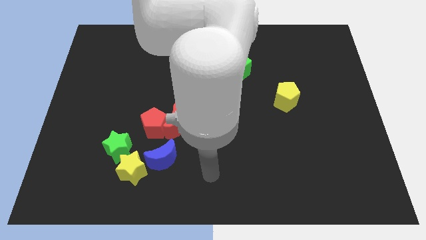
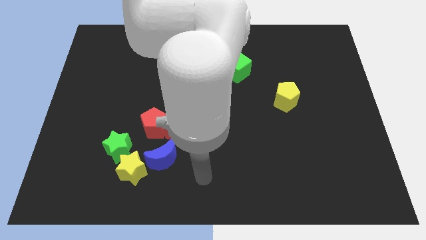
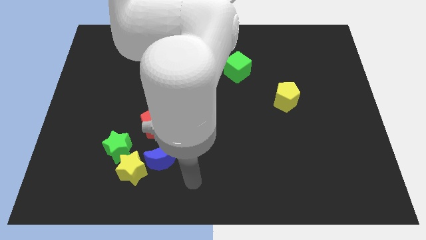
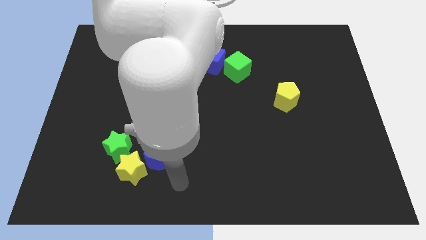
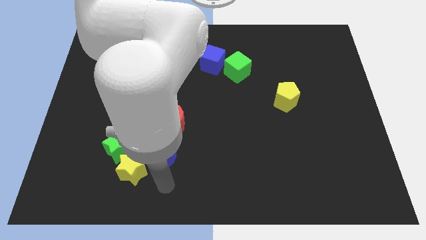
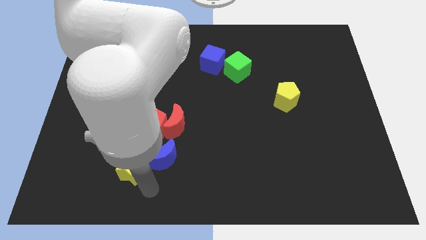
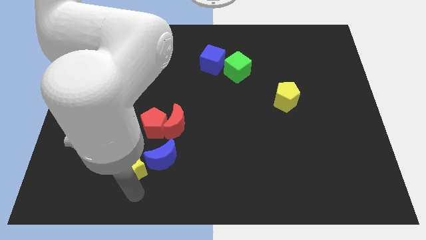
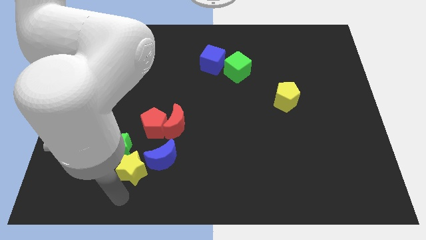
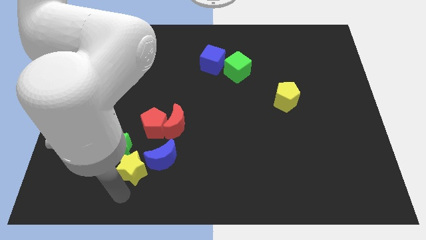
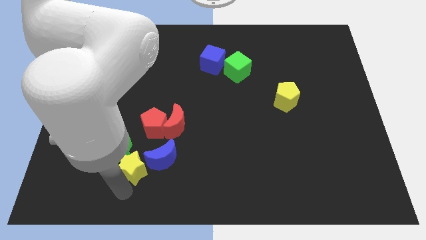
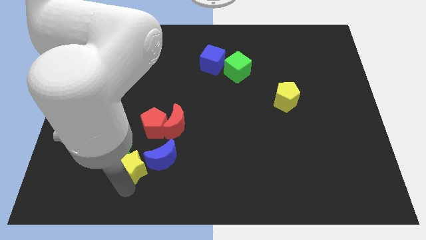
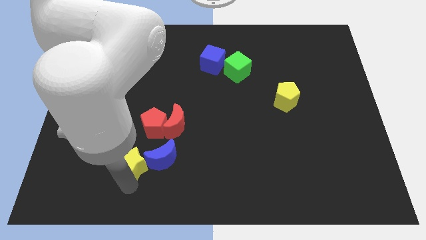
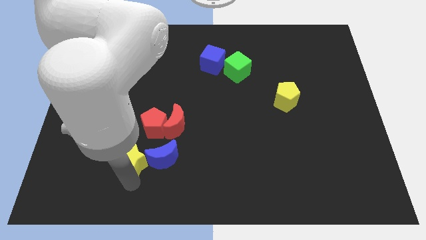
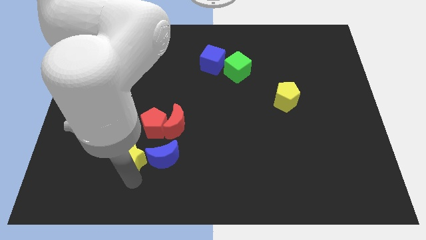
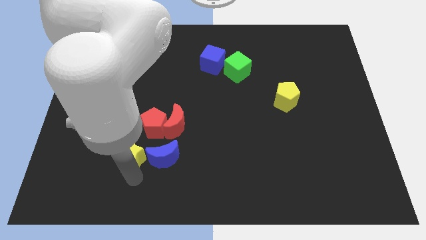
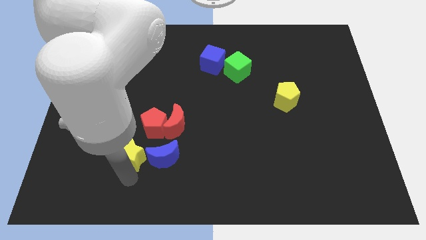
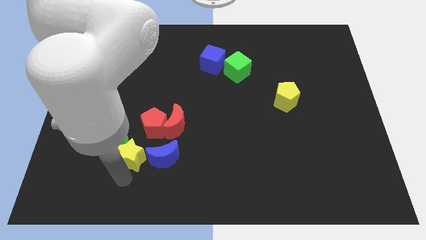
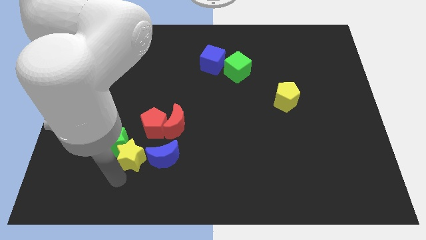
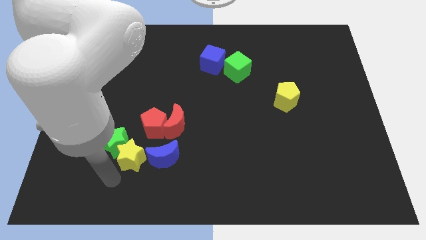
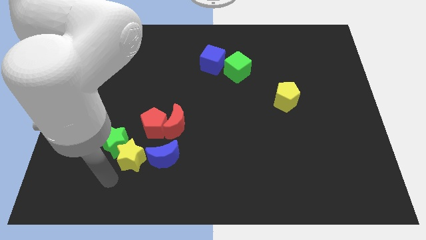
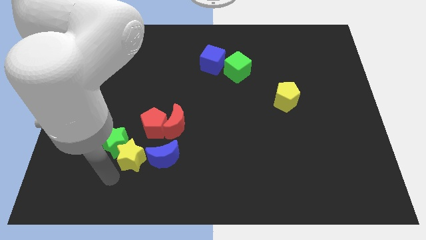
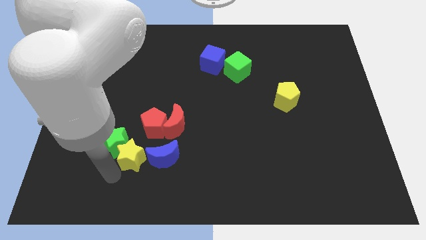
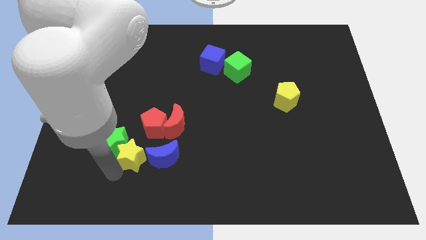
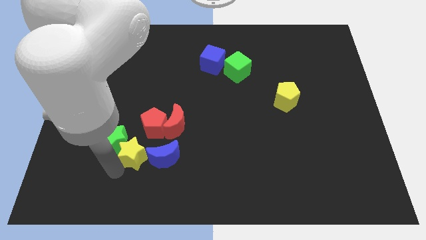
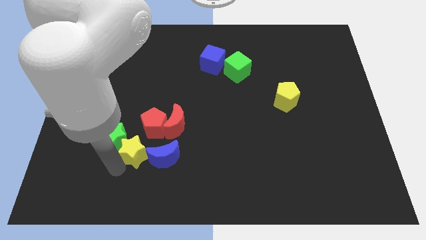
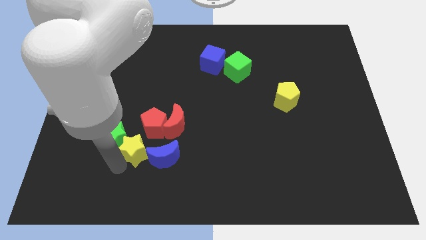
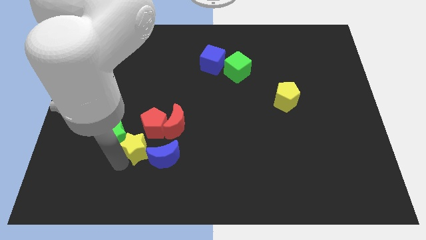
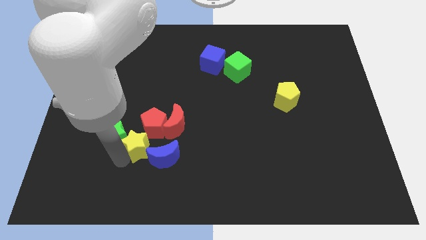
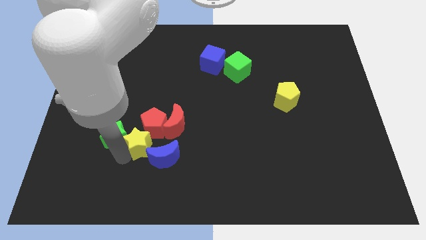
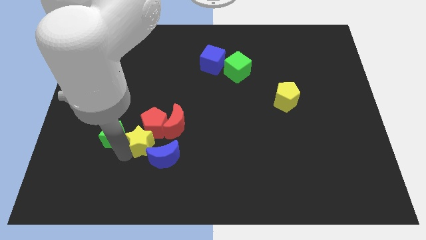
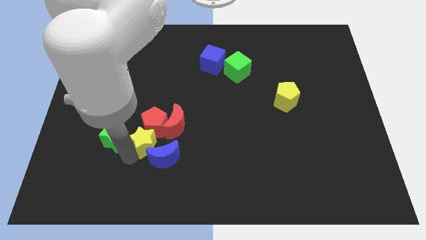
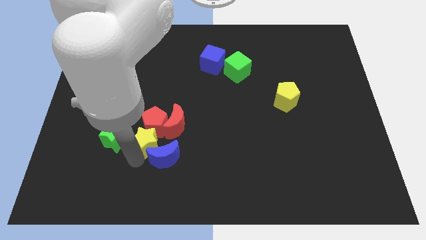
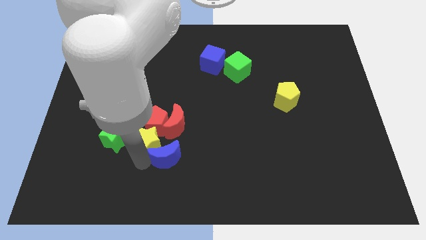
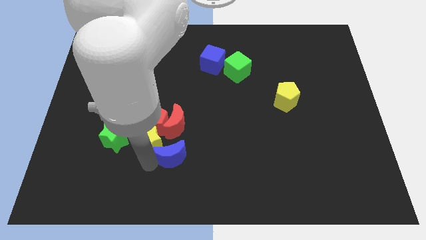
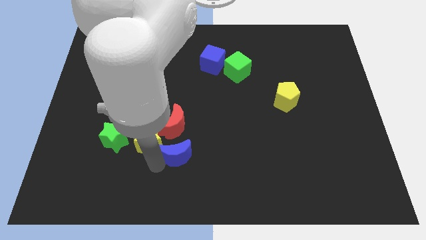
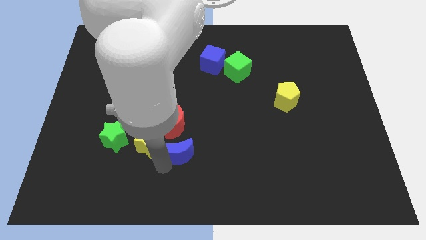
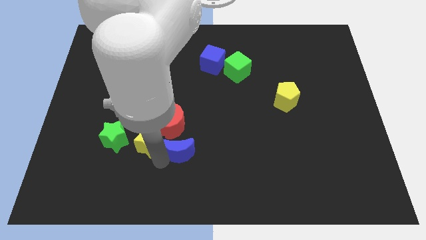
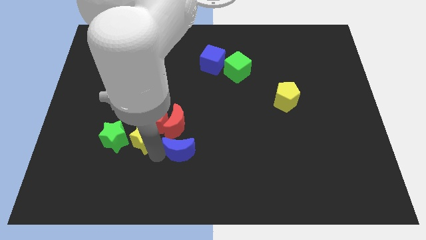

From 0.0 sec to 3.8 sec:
slightly push the yellow star upwards

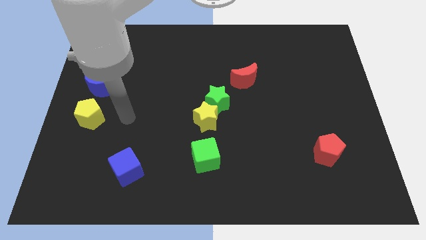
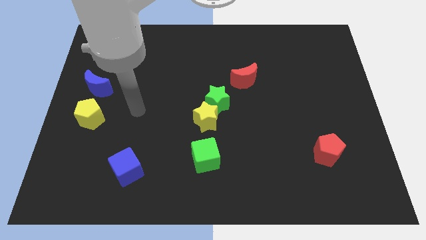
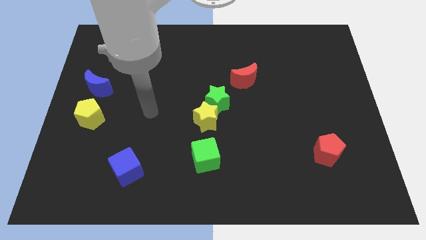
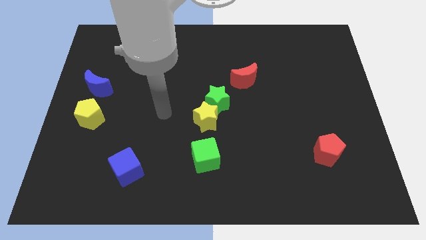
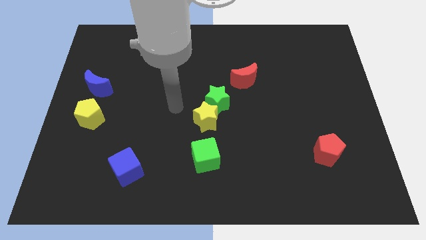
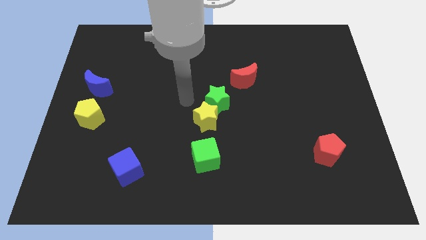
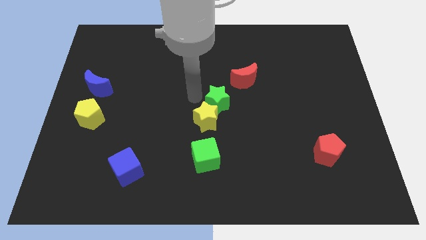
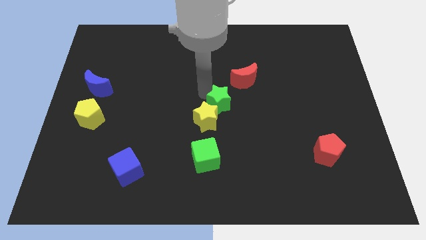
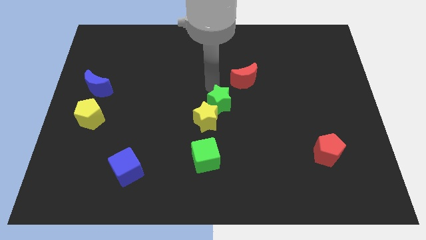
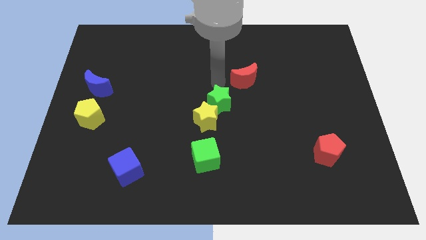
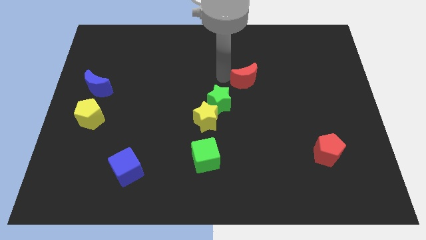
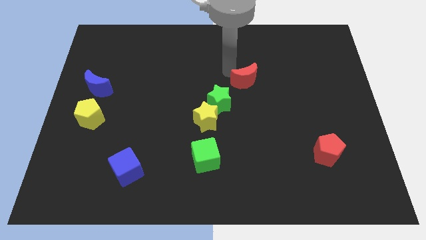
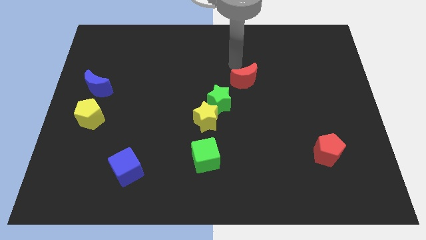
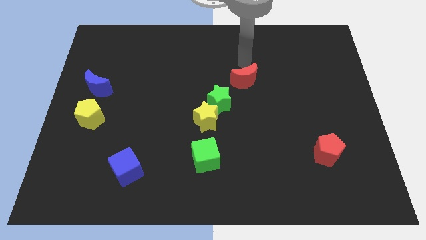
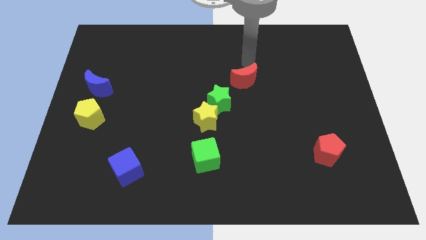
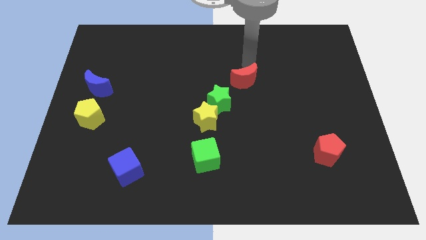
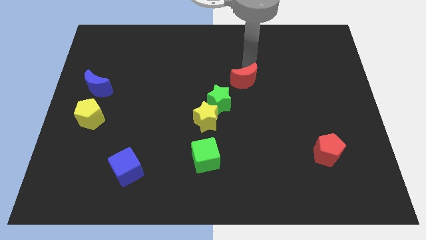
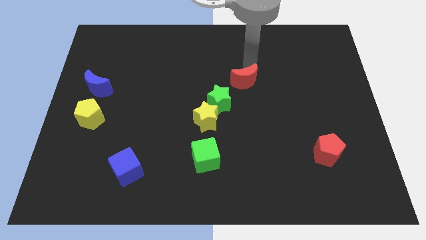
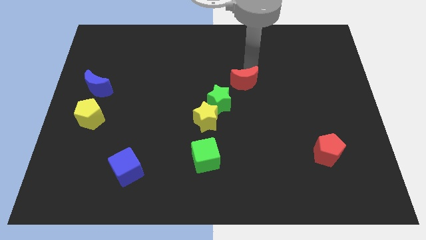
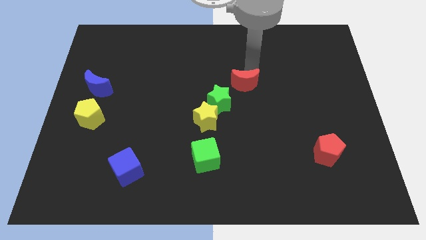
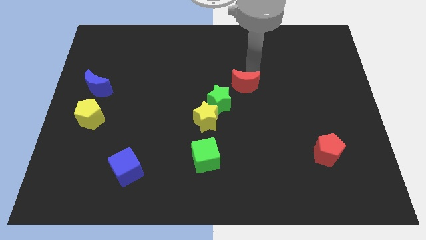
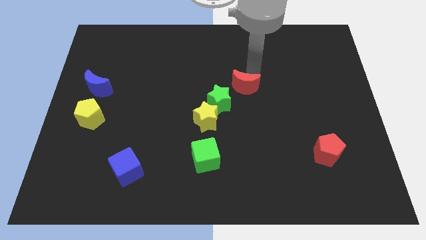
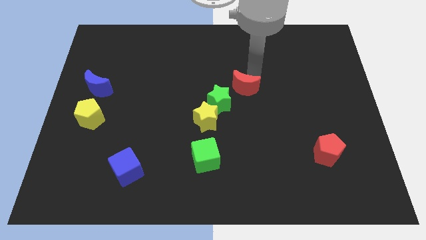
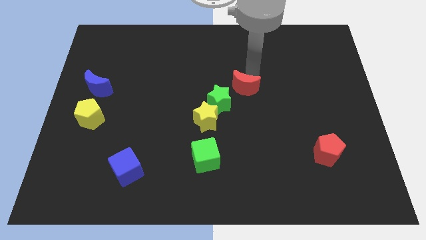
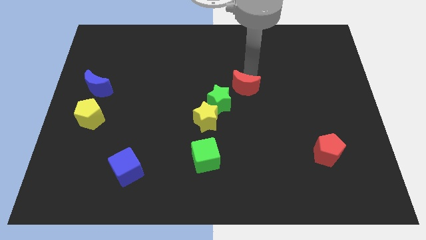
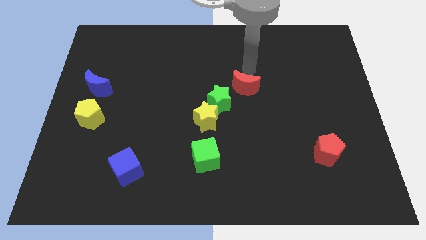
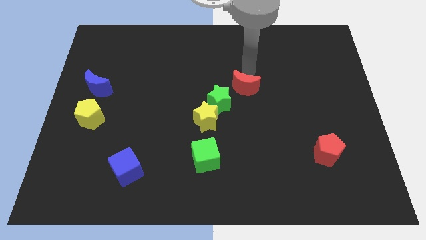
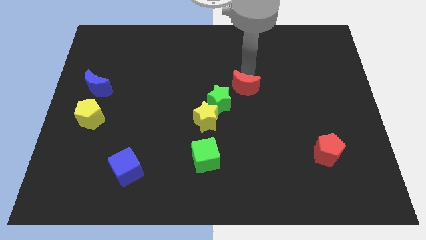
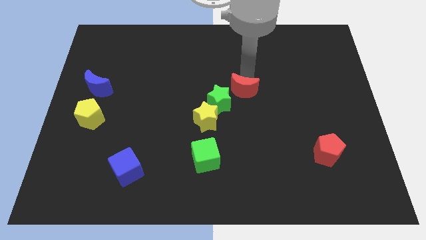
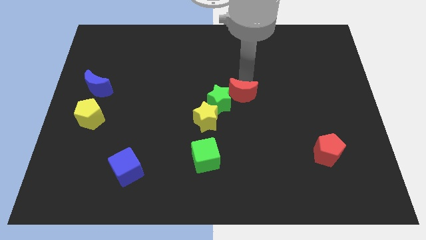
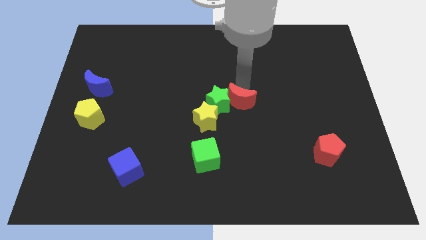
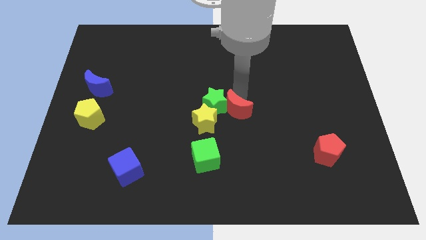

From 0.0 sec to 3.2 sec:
move the red moon downwards a little

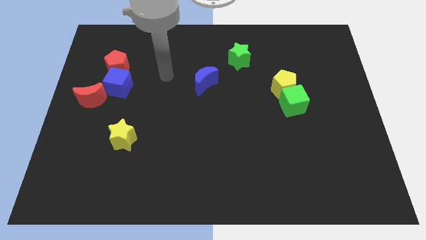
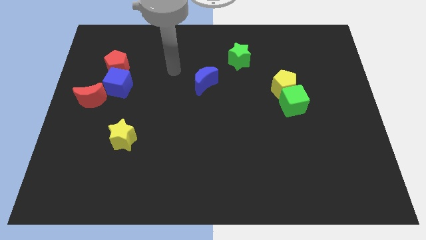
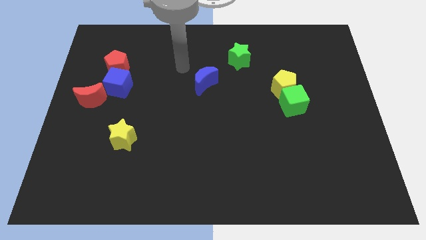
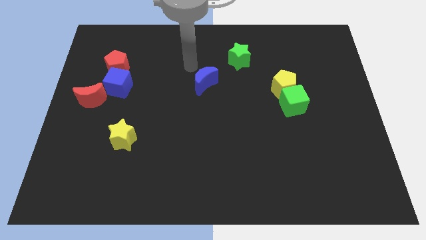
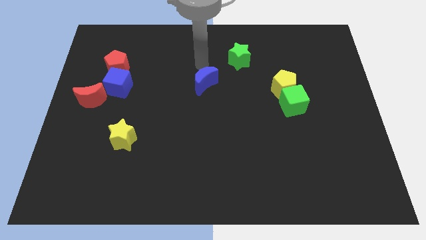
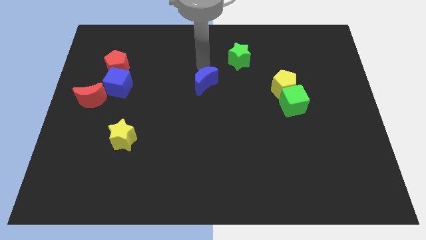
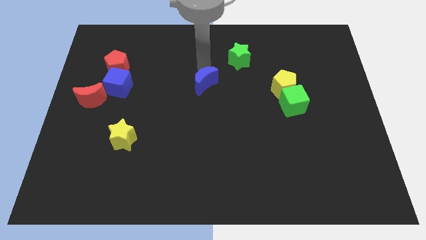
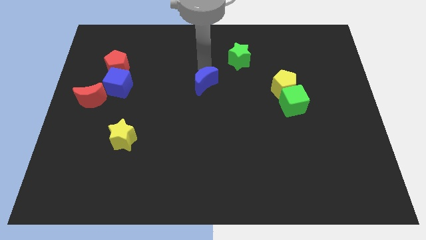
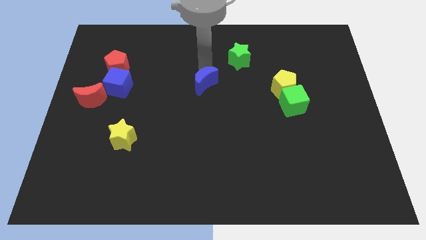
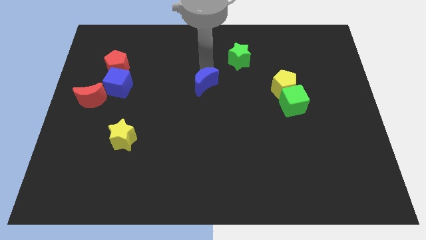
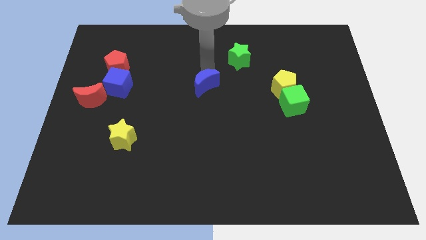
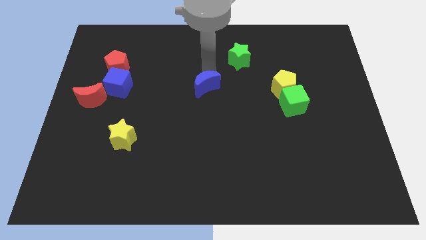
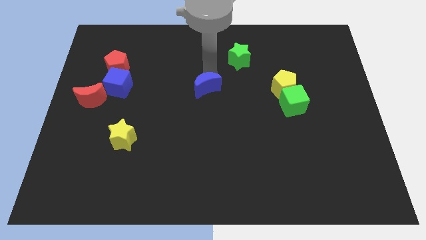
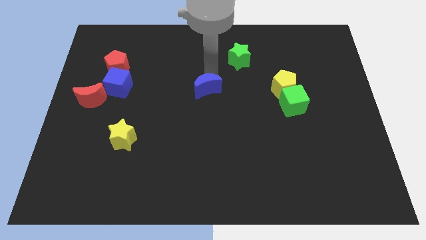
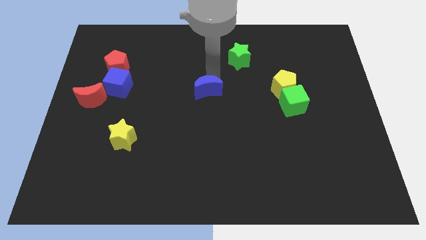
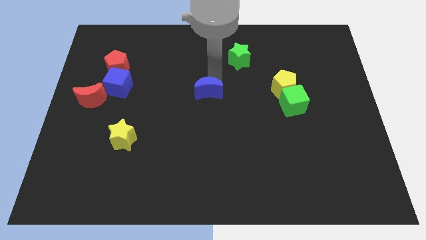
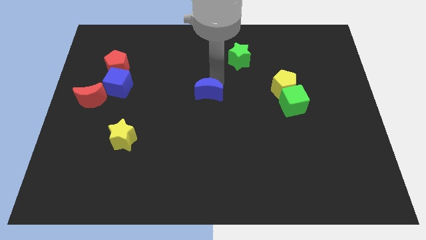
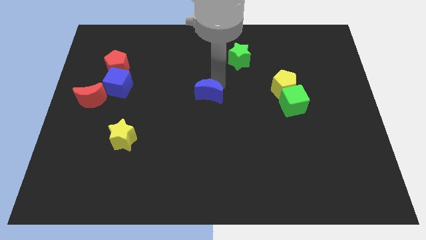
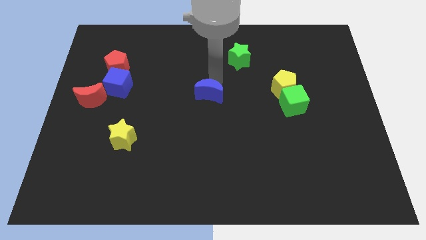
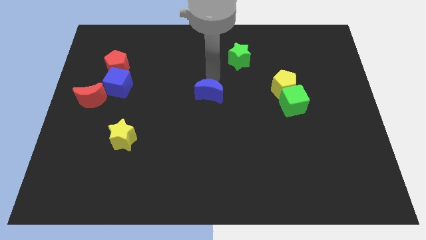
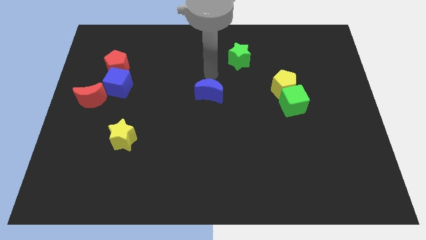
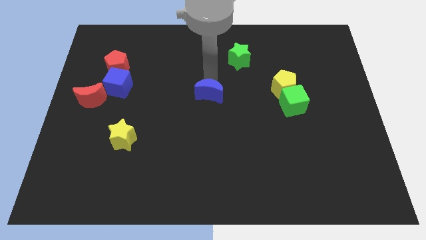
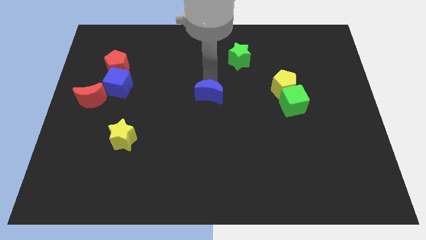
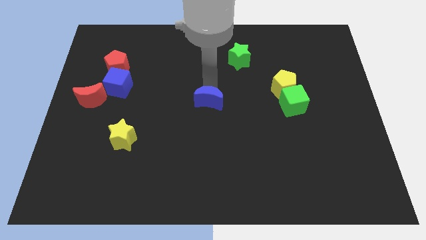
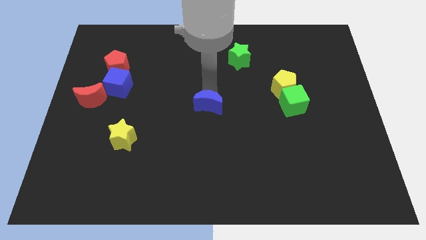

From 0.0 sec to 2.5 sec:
slightly slide the blue moon down
